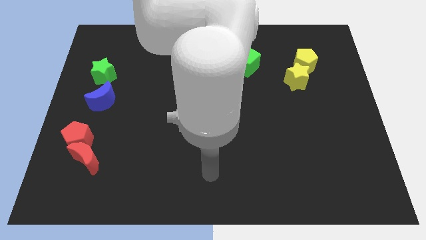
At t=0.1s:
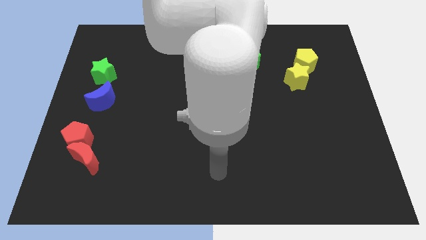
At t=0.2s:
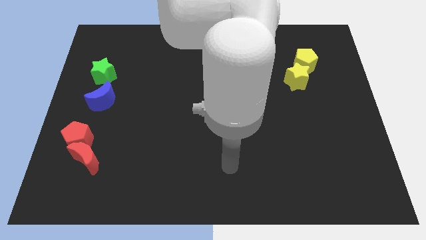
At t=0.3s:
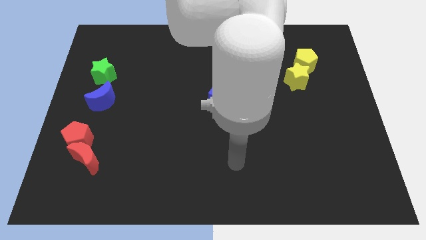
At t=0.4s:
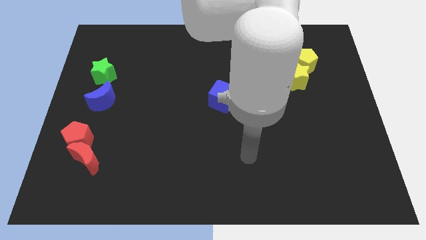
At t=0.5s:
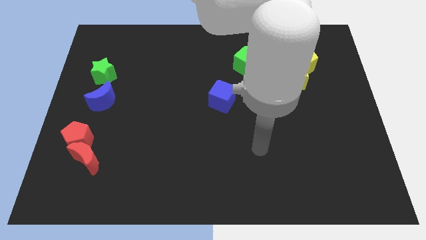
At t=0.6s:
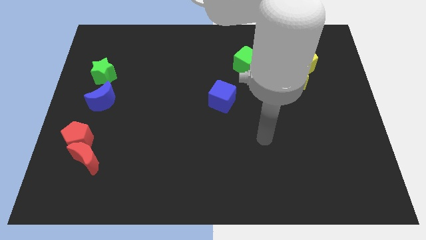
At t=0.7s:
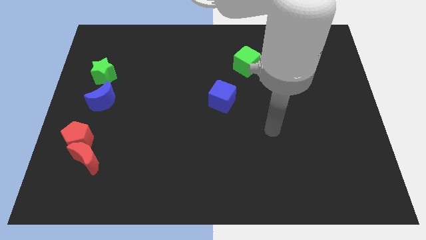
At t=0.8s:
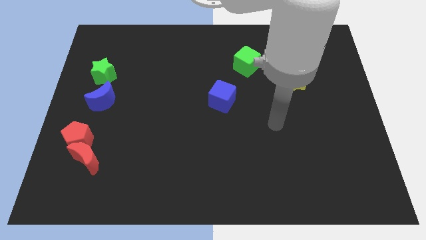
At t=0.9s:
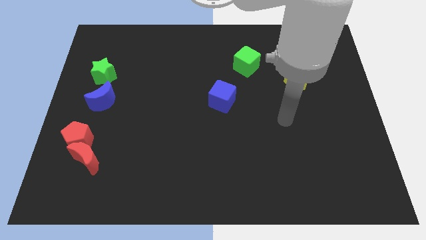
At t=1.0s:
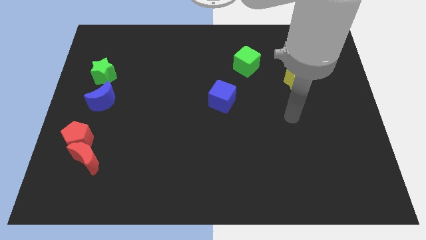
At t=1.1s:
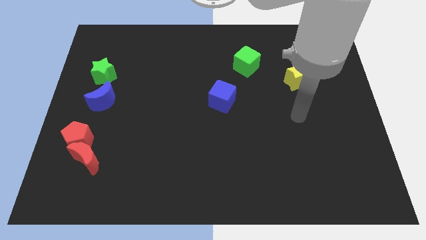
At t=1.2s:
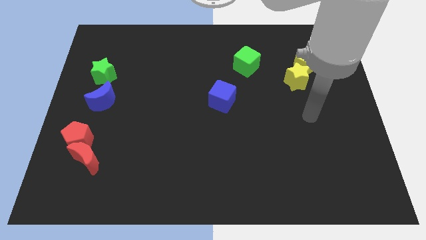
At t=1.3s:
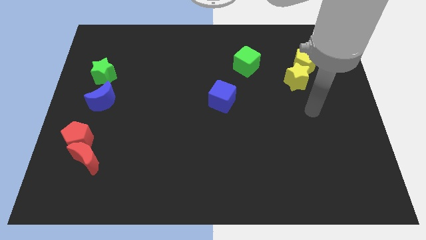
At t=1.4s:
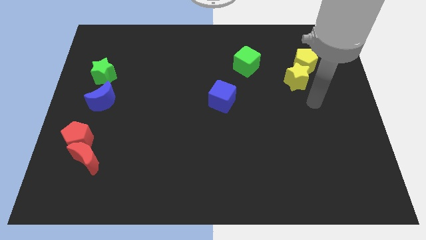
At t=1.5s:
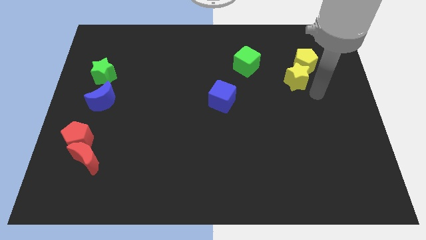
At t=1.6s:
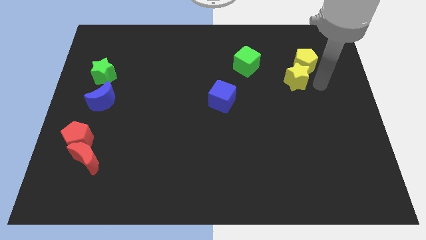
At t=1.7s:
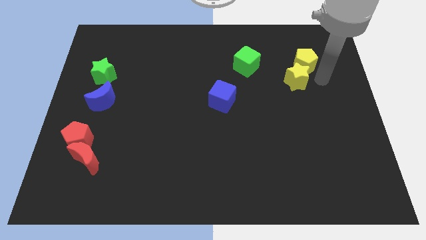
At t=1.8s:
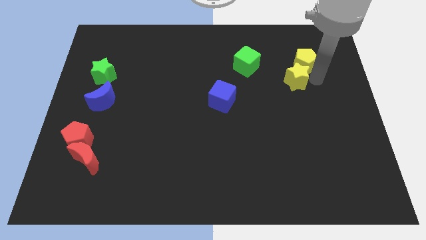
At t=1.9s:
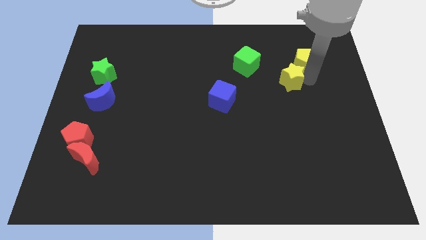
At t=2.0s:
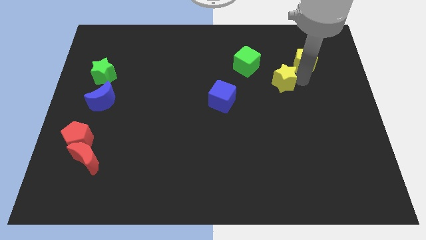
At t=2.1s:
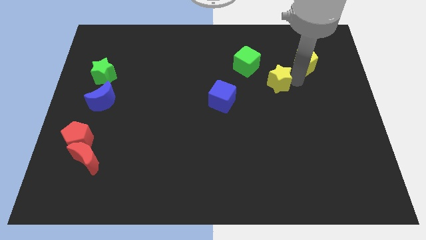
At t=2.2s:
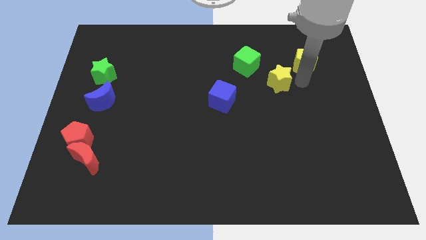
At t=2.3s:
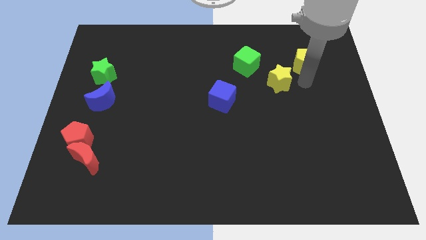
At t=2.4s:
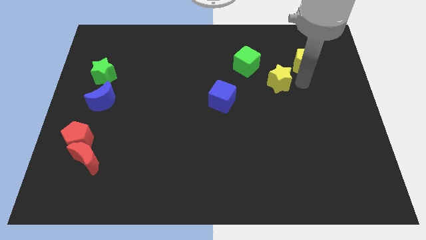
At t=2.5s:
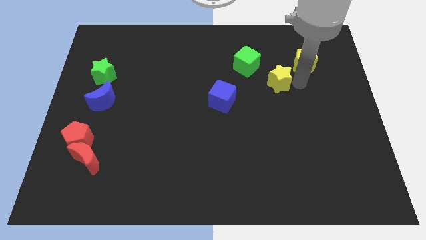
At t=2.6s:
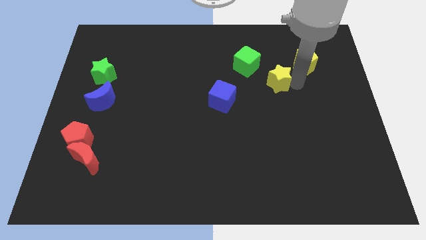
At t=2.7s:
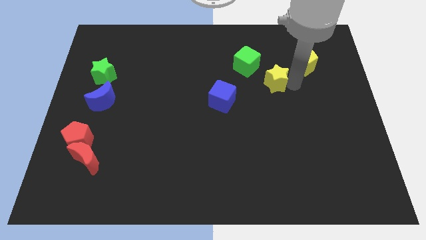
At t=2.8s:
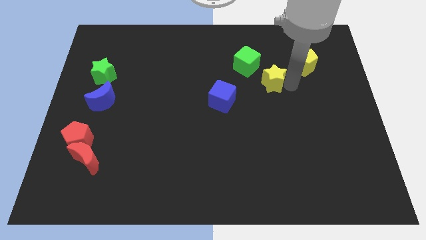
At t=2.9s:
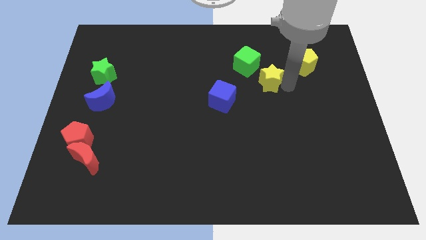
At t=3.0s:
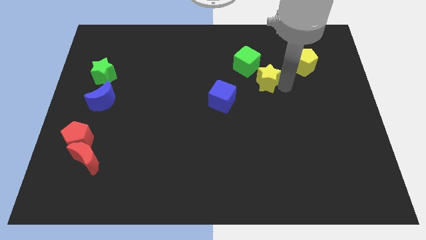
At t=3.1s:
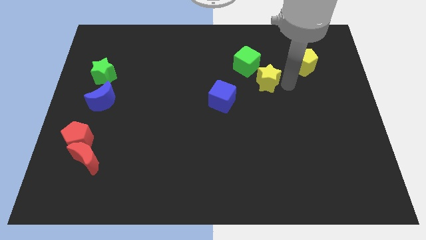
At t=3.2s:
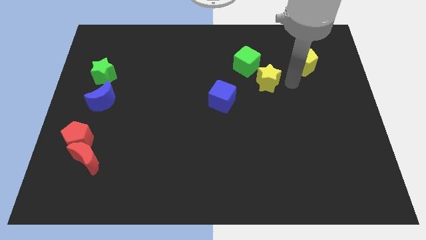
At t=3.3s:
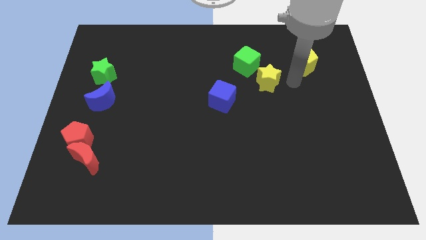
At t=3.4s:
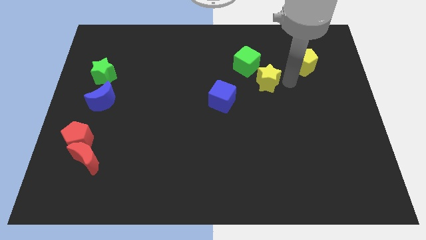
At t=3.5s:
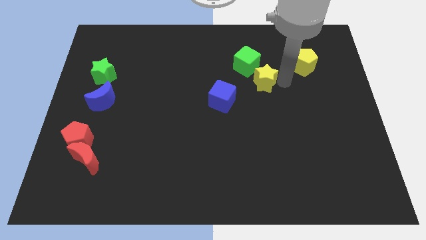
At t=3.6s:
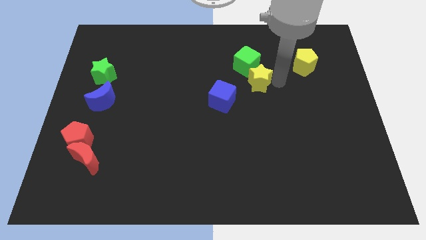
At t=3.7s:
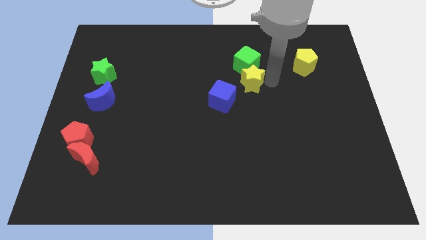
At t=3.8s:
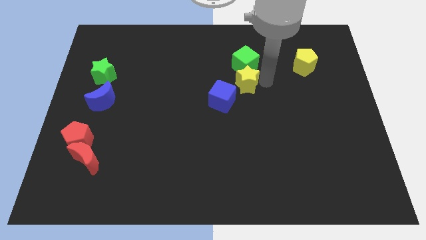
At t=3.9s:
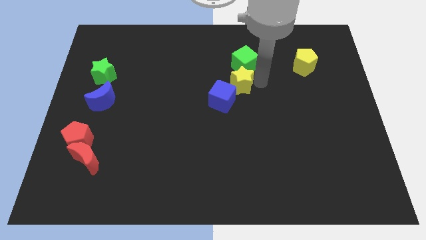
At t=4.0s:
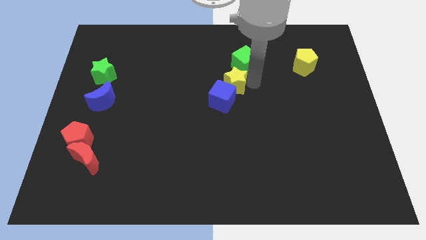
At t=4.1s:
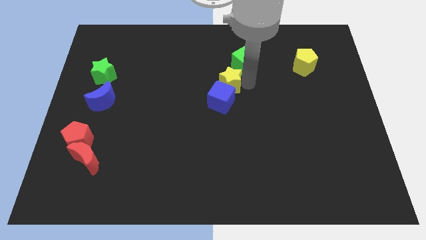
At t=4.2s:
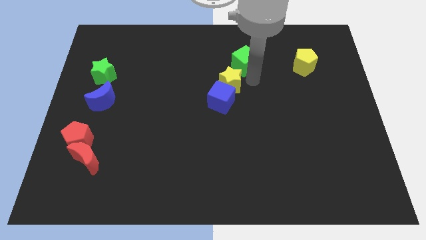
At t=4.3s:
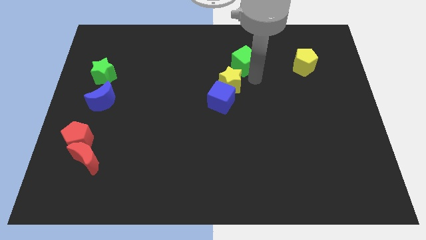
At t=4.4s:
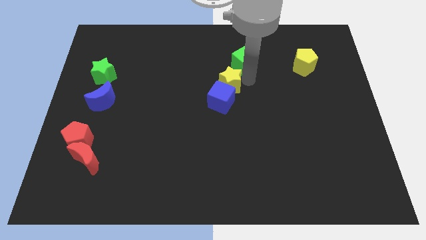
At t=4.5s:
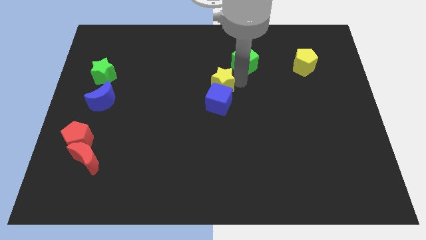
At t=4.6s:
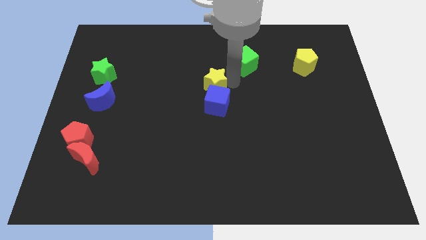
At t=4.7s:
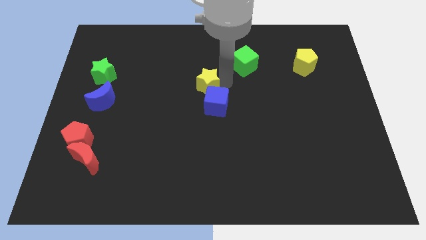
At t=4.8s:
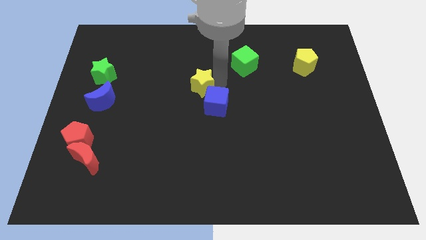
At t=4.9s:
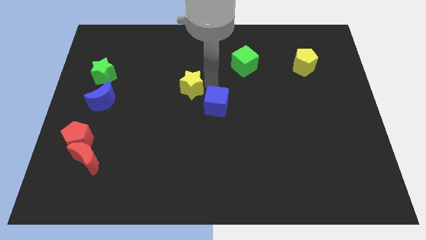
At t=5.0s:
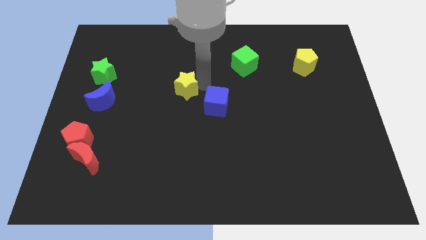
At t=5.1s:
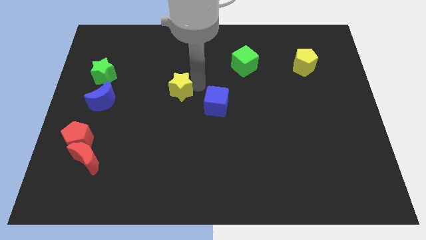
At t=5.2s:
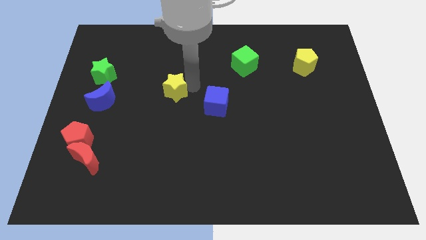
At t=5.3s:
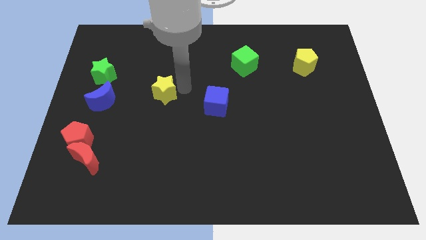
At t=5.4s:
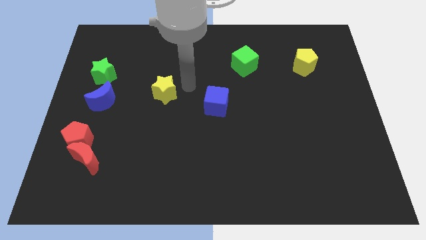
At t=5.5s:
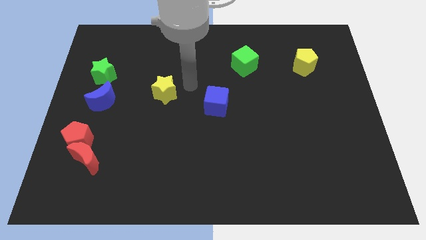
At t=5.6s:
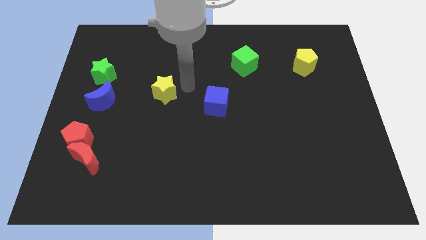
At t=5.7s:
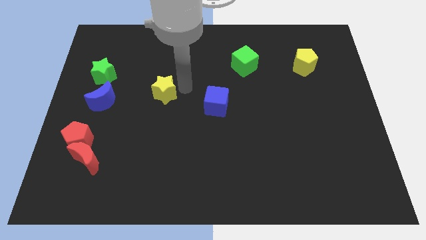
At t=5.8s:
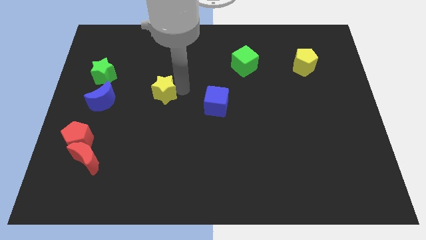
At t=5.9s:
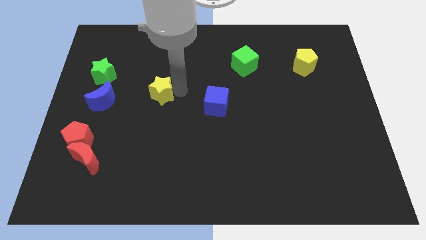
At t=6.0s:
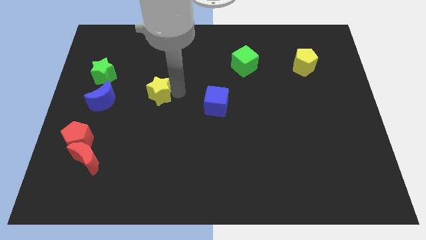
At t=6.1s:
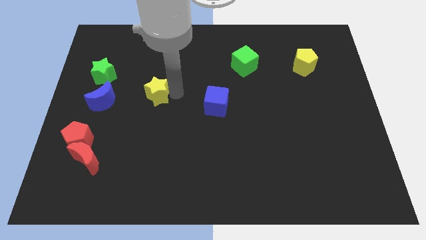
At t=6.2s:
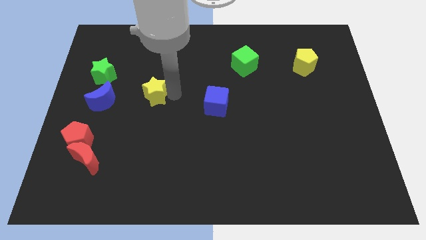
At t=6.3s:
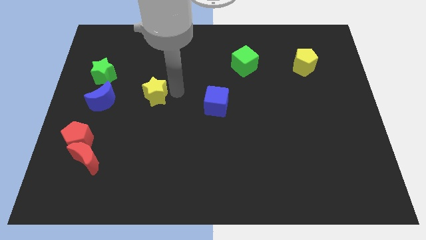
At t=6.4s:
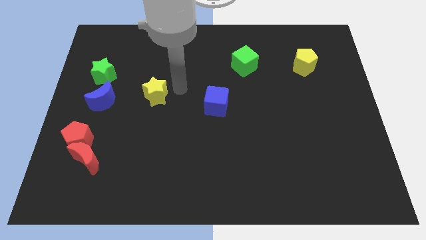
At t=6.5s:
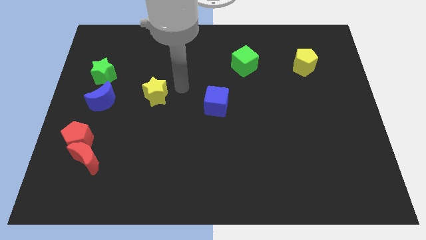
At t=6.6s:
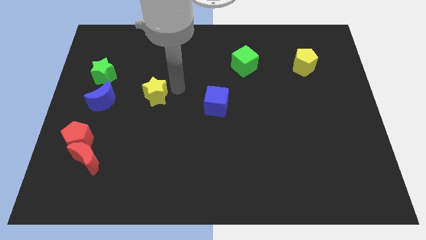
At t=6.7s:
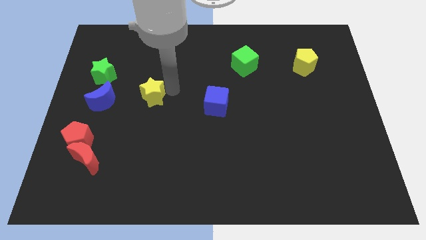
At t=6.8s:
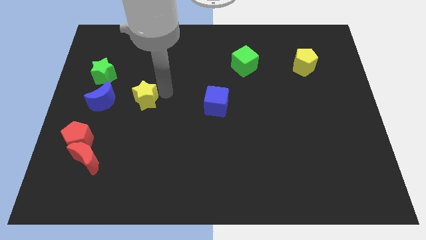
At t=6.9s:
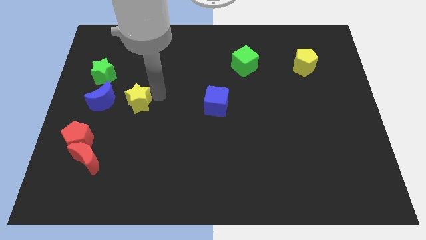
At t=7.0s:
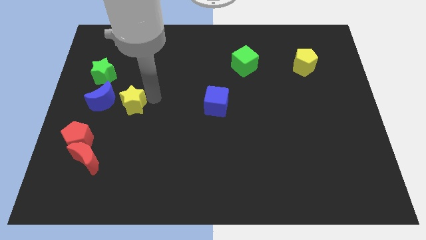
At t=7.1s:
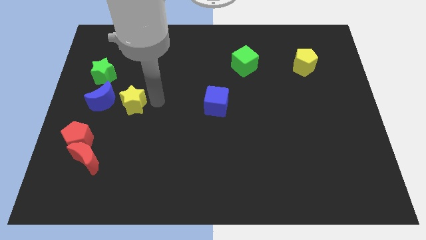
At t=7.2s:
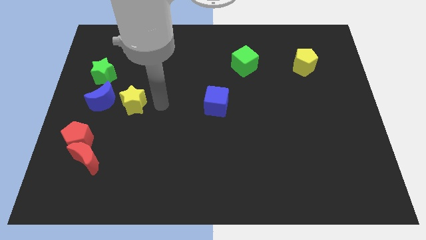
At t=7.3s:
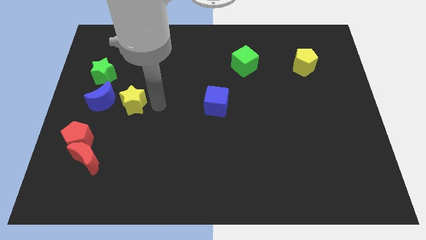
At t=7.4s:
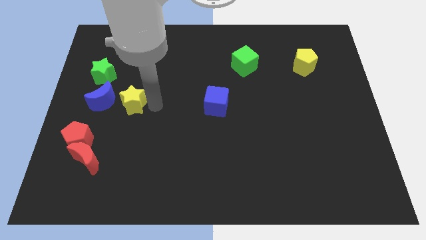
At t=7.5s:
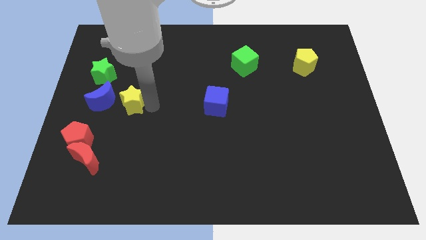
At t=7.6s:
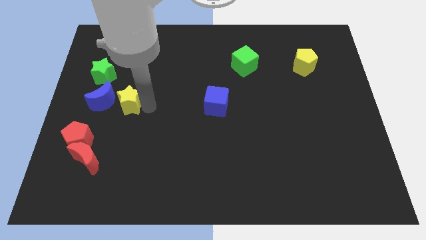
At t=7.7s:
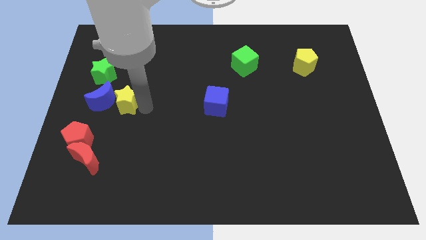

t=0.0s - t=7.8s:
slide the yellow star next to the blue moon
